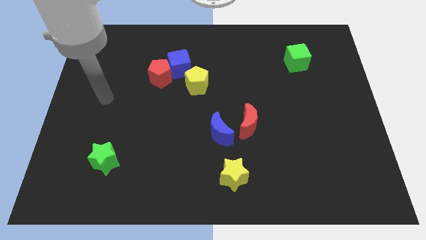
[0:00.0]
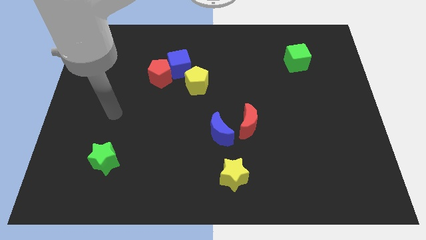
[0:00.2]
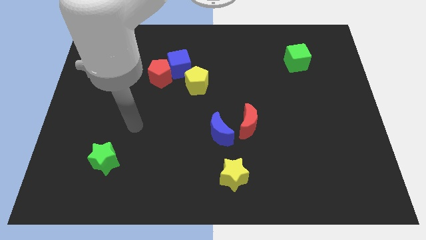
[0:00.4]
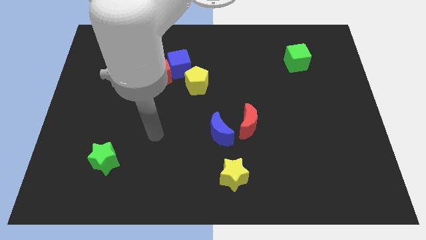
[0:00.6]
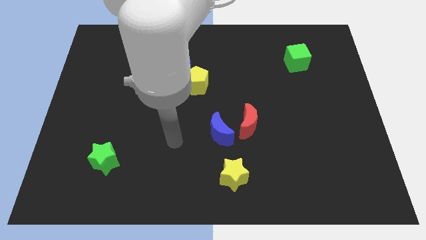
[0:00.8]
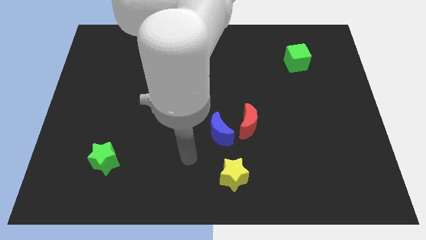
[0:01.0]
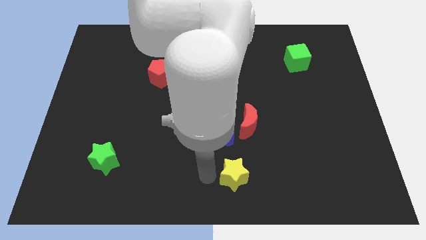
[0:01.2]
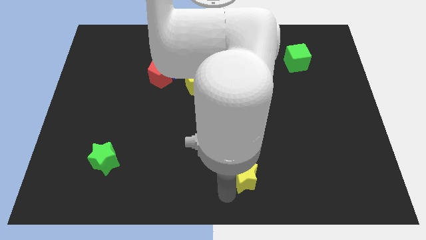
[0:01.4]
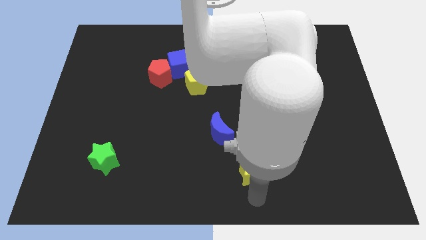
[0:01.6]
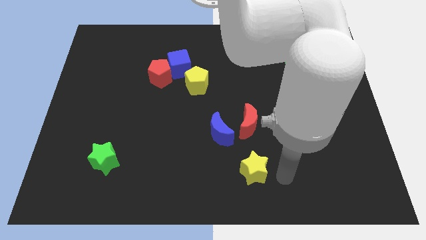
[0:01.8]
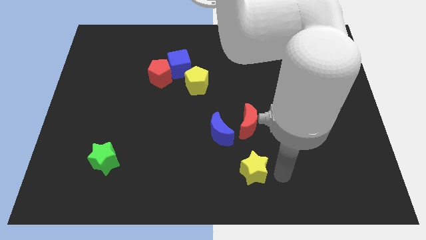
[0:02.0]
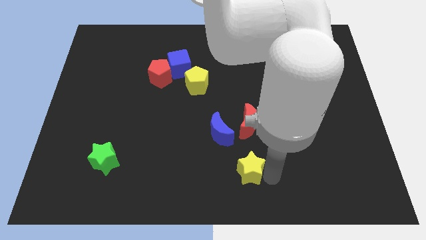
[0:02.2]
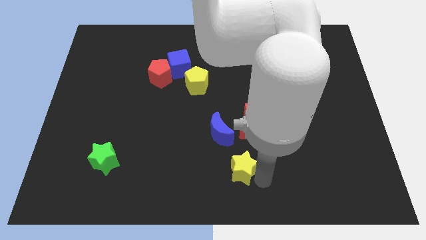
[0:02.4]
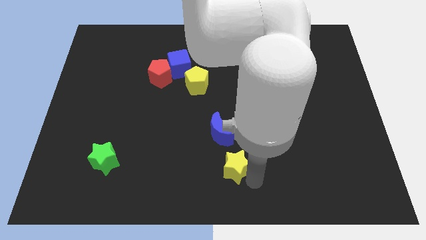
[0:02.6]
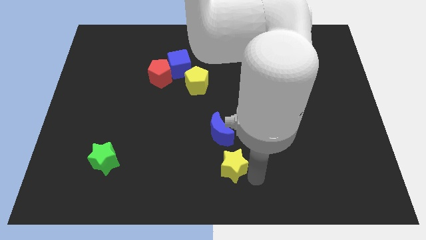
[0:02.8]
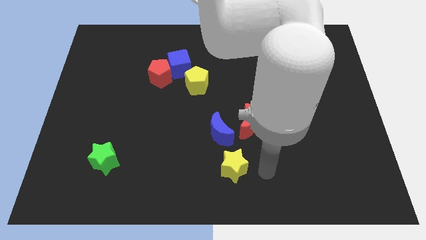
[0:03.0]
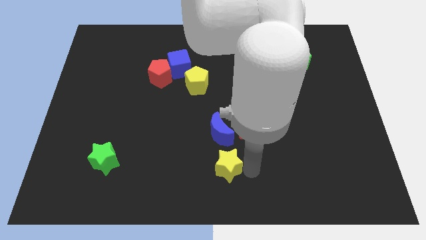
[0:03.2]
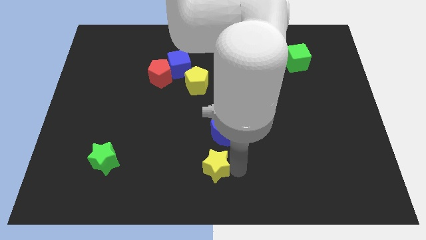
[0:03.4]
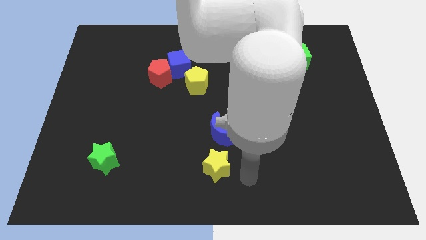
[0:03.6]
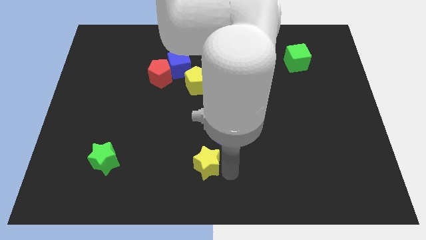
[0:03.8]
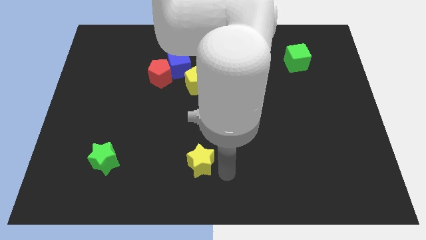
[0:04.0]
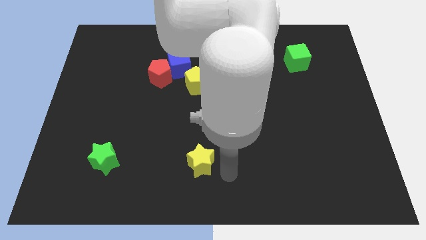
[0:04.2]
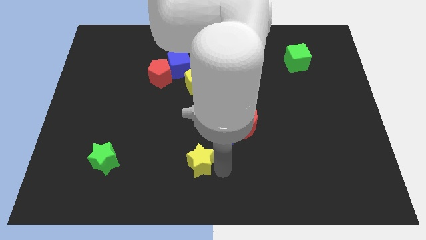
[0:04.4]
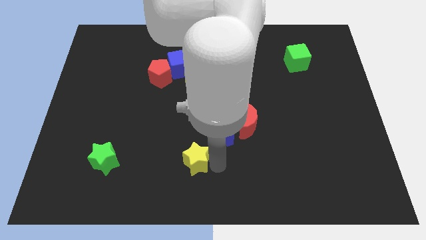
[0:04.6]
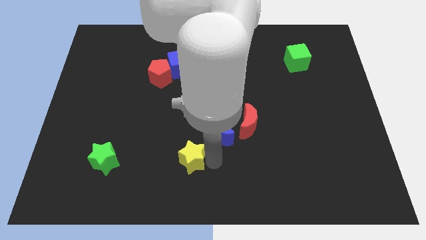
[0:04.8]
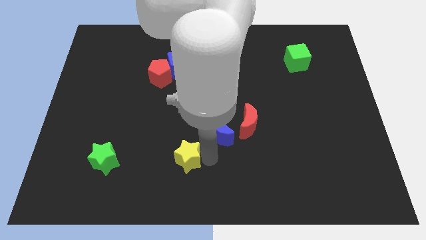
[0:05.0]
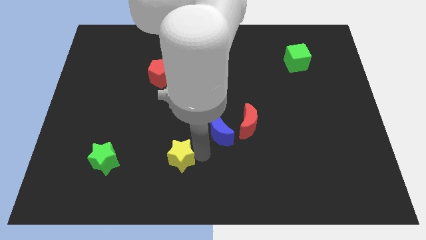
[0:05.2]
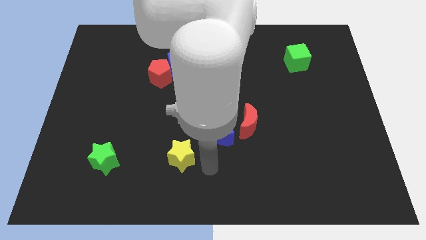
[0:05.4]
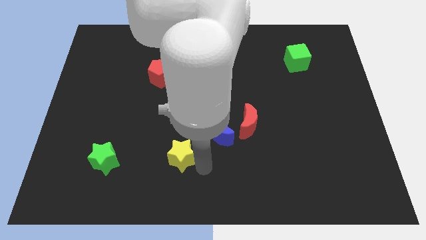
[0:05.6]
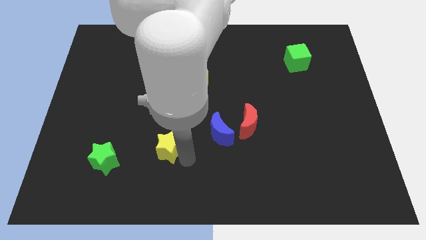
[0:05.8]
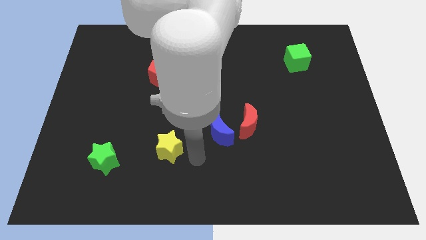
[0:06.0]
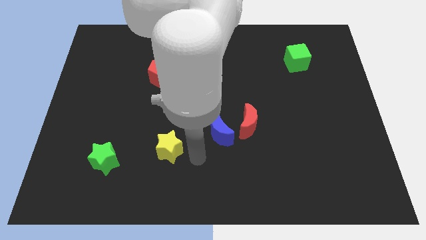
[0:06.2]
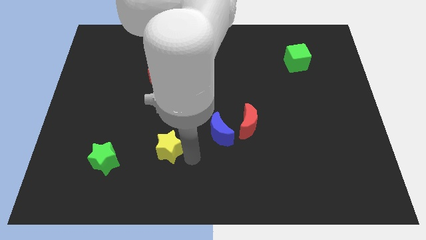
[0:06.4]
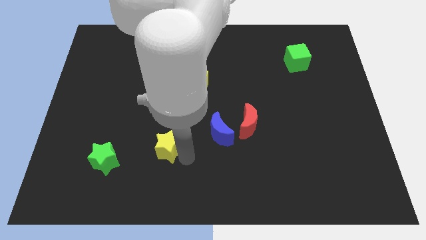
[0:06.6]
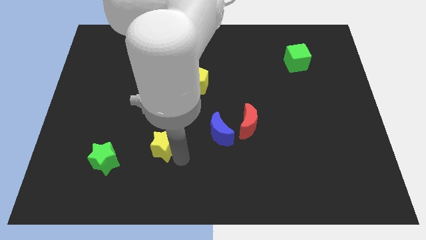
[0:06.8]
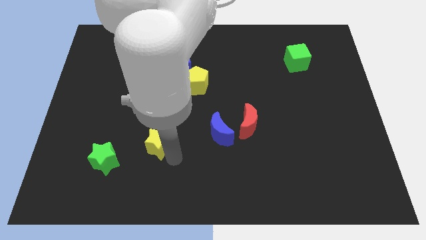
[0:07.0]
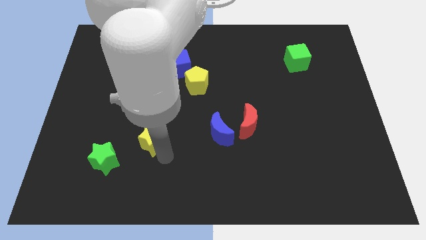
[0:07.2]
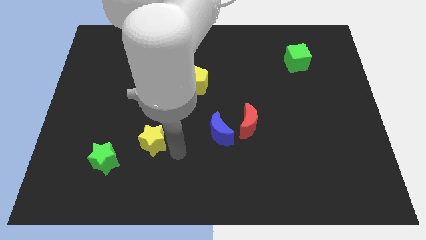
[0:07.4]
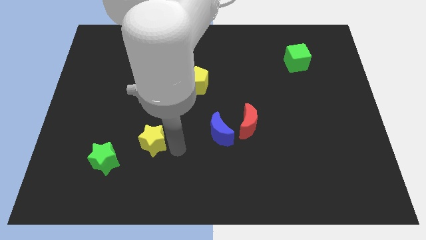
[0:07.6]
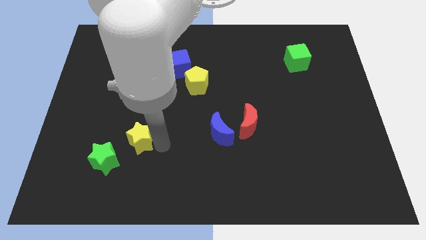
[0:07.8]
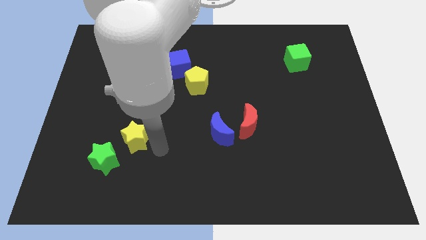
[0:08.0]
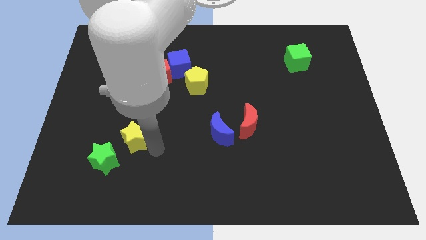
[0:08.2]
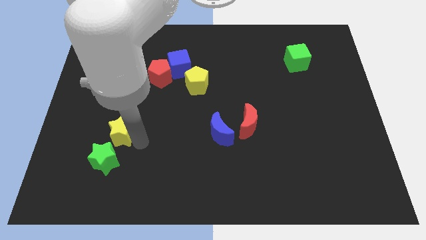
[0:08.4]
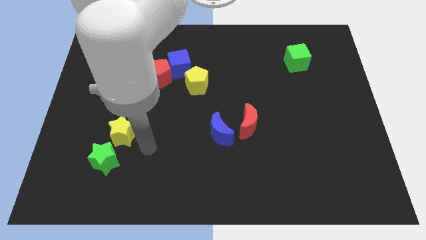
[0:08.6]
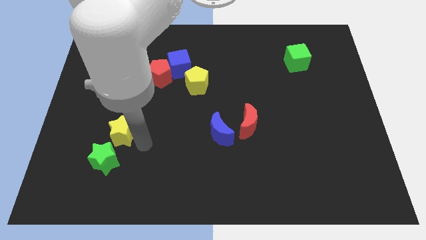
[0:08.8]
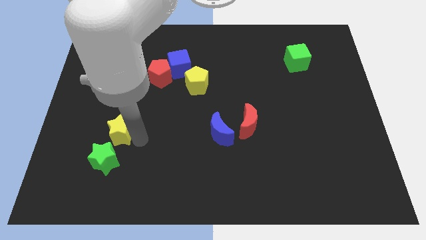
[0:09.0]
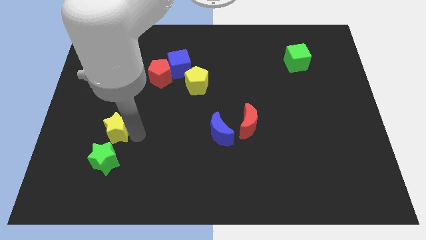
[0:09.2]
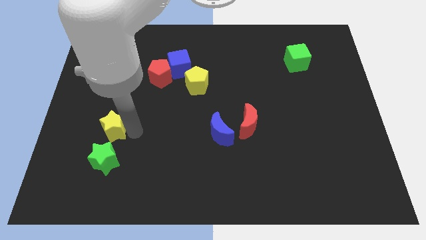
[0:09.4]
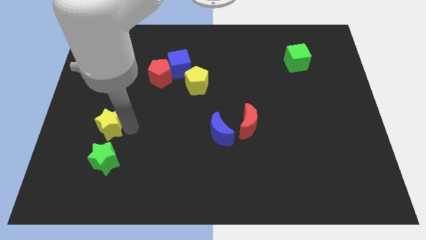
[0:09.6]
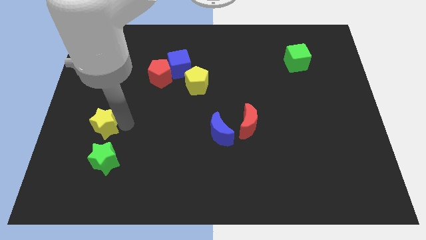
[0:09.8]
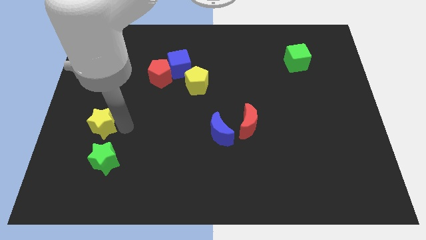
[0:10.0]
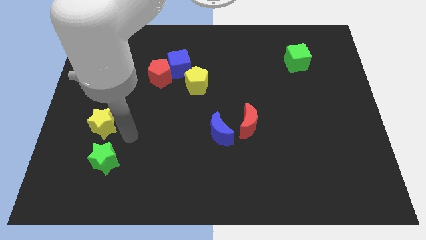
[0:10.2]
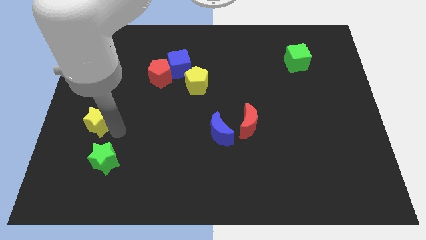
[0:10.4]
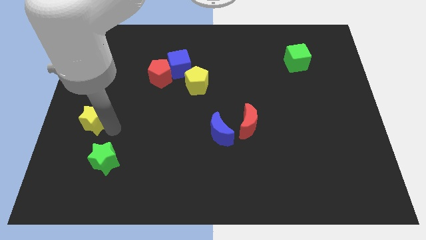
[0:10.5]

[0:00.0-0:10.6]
move the yellow star to the left side of the board
